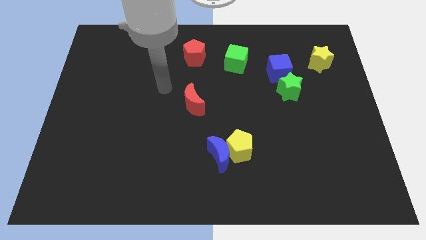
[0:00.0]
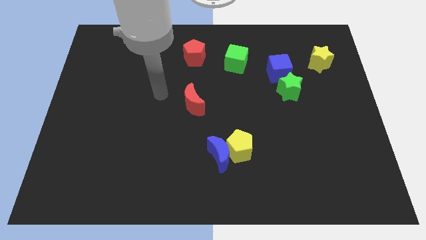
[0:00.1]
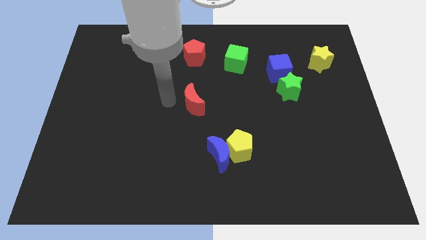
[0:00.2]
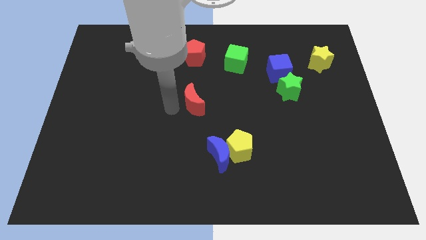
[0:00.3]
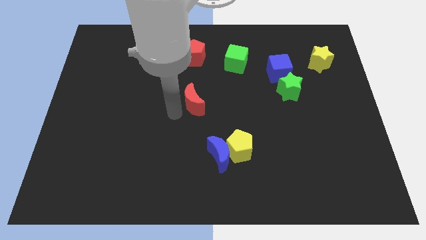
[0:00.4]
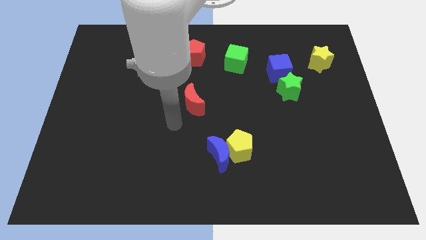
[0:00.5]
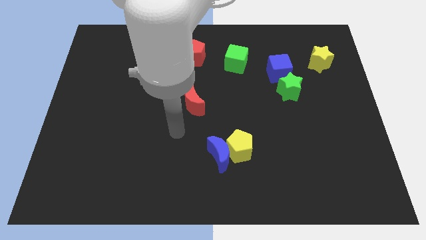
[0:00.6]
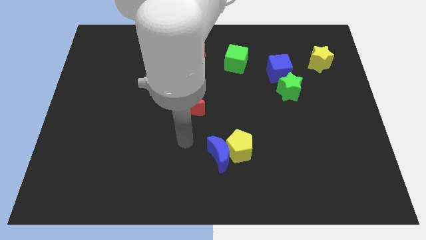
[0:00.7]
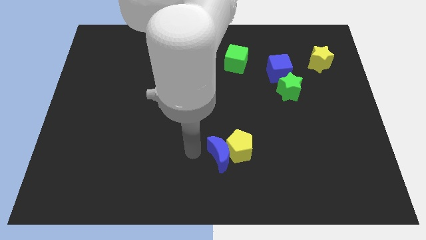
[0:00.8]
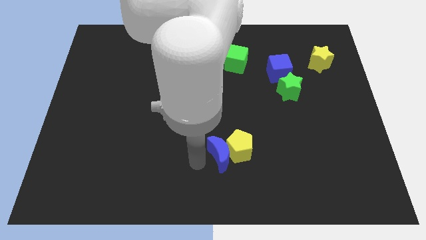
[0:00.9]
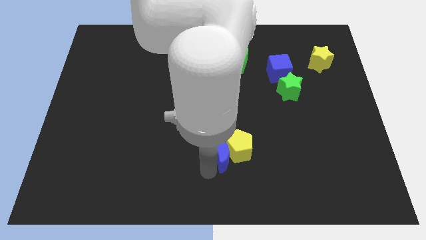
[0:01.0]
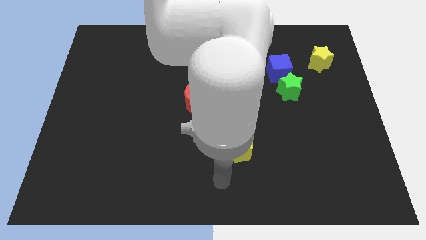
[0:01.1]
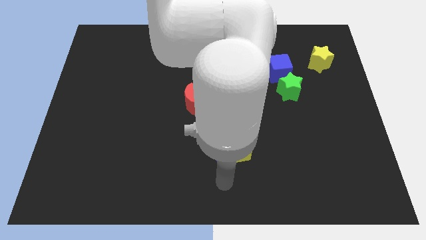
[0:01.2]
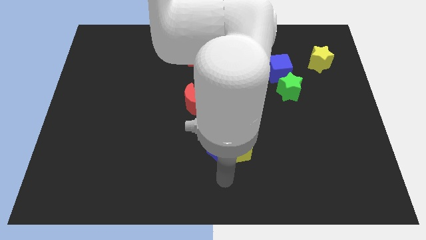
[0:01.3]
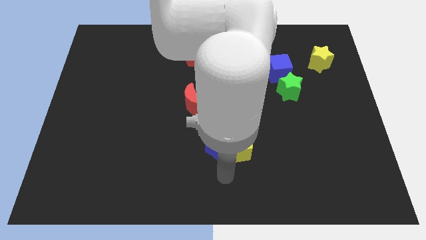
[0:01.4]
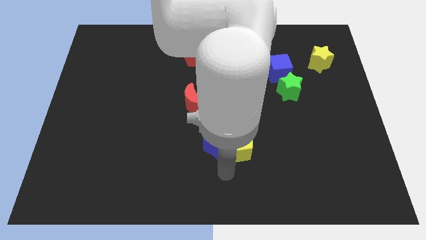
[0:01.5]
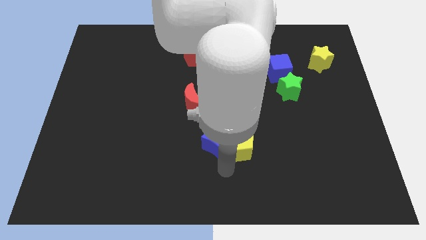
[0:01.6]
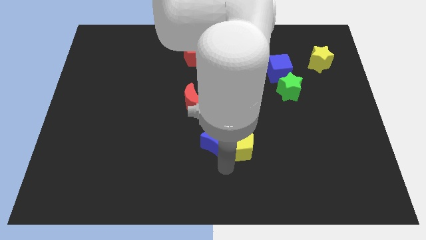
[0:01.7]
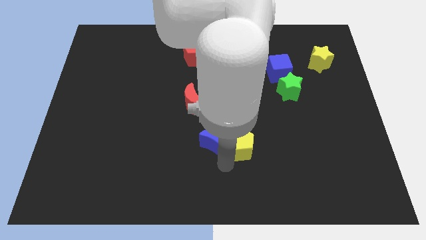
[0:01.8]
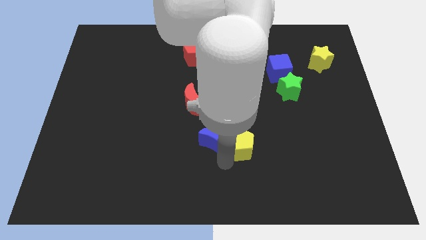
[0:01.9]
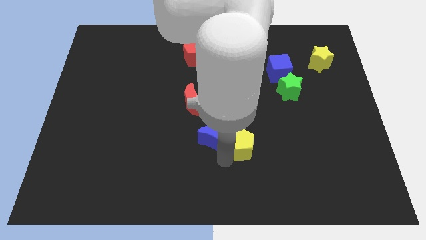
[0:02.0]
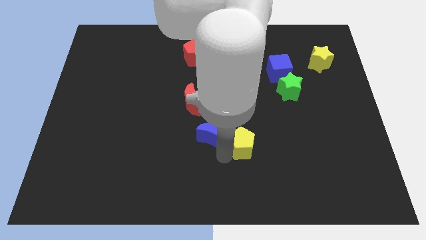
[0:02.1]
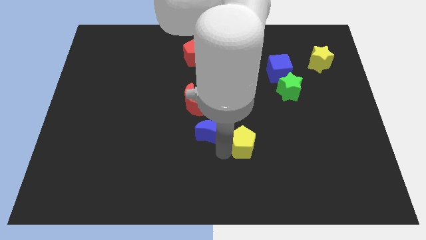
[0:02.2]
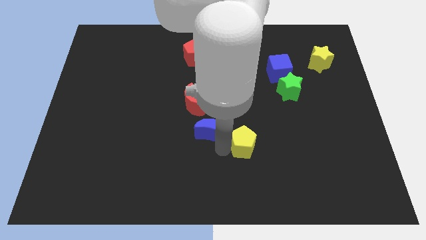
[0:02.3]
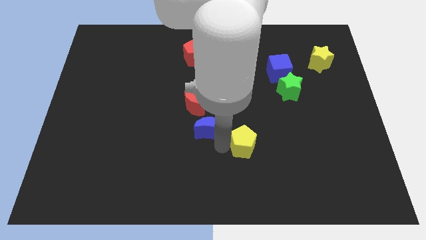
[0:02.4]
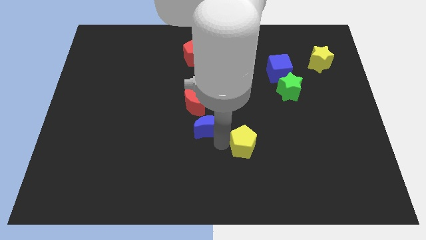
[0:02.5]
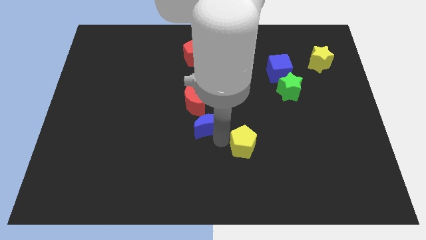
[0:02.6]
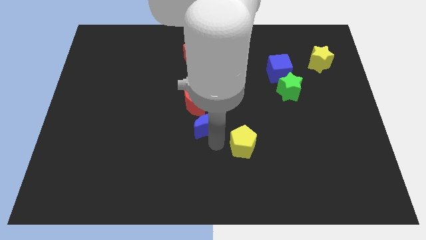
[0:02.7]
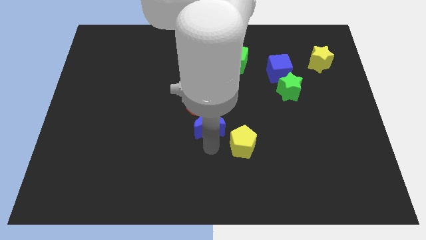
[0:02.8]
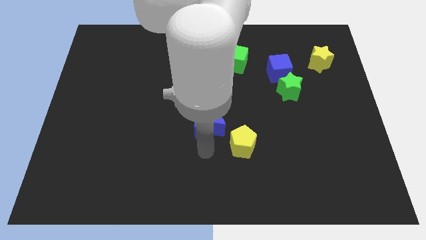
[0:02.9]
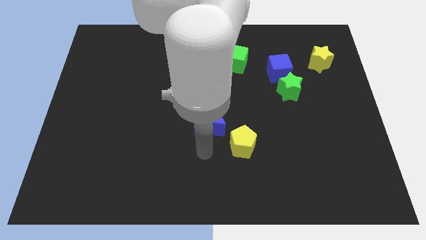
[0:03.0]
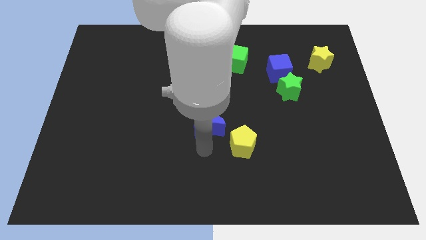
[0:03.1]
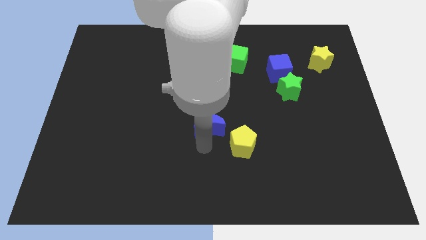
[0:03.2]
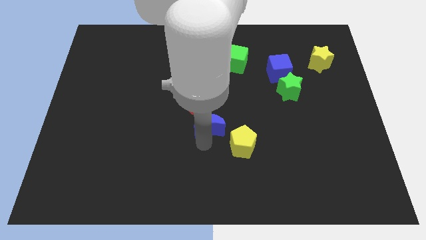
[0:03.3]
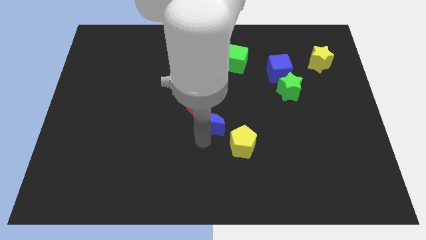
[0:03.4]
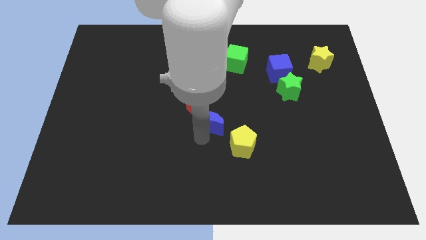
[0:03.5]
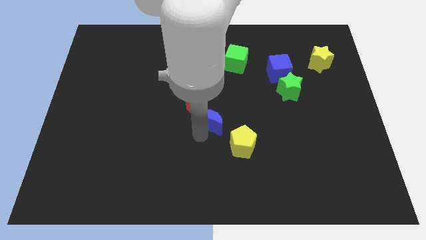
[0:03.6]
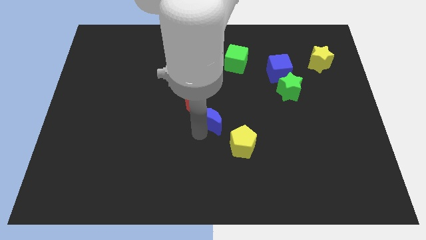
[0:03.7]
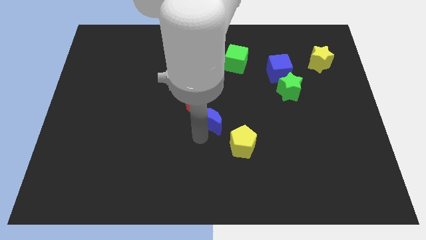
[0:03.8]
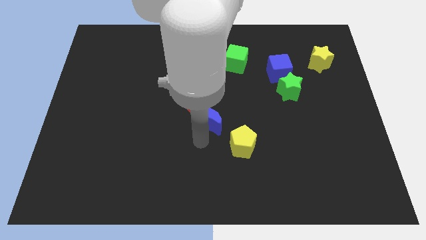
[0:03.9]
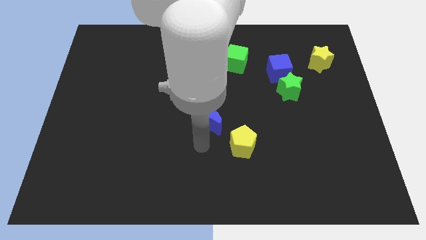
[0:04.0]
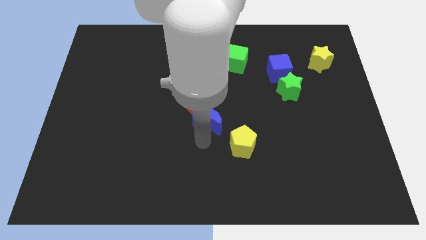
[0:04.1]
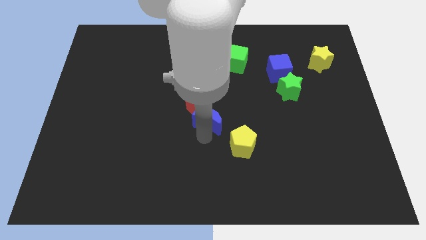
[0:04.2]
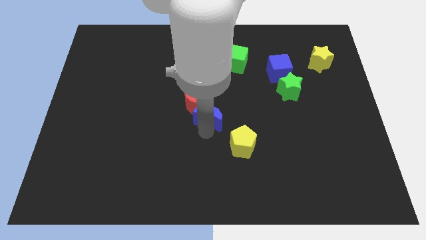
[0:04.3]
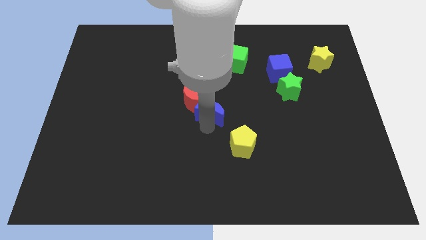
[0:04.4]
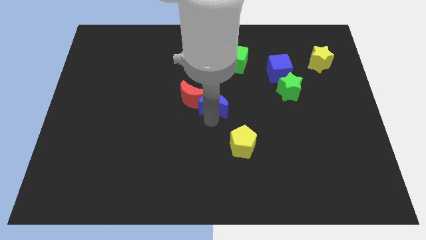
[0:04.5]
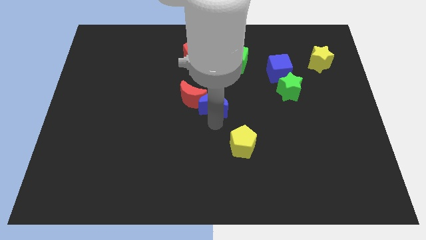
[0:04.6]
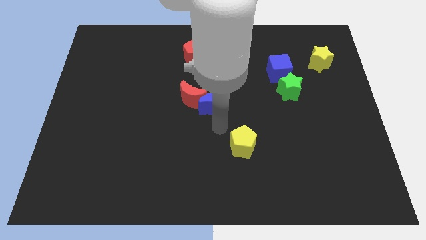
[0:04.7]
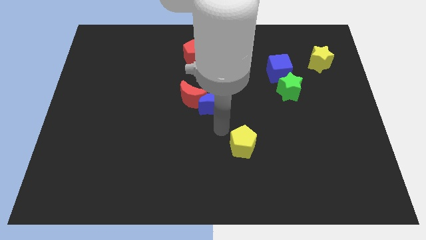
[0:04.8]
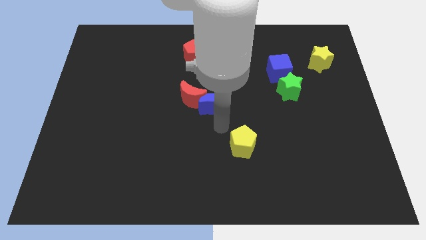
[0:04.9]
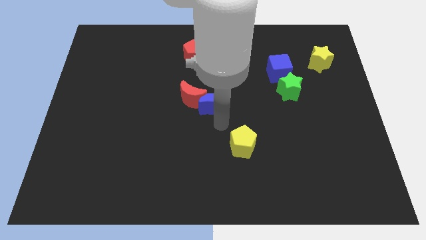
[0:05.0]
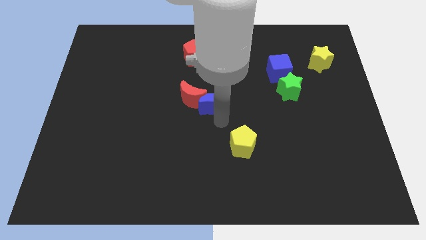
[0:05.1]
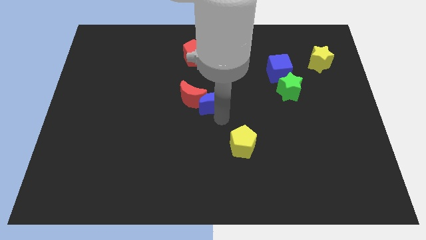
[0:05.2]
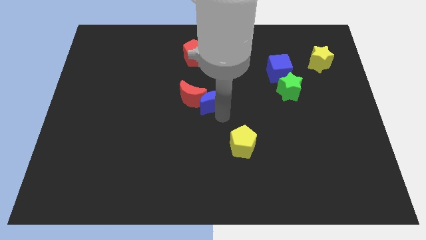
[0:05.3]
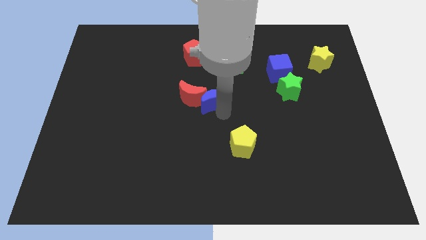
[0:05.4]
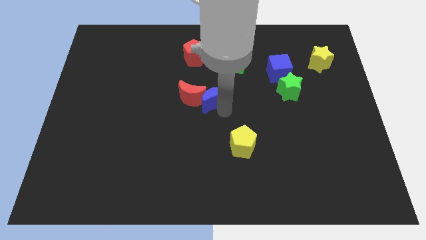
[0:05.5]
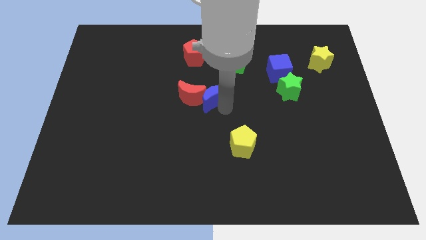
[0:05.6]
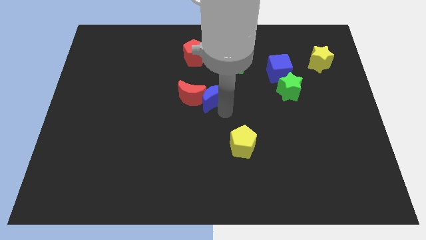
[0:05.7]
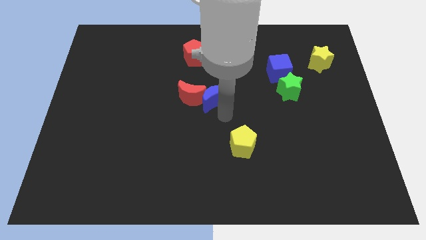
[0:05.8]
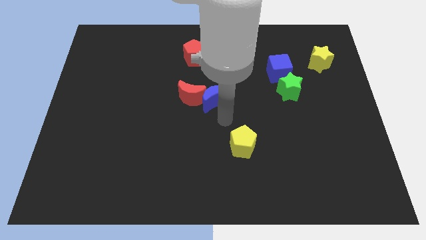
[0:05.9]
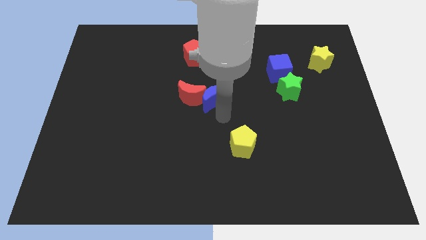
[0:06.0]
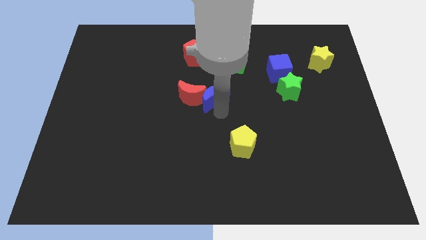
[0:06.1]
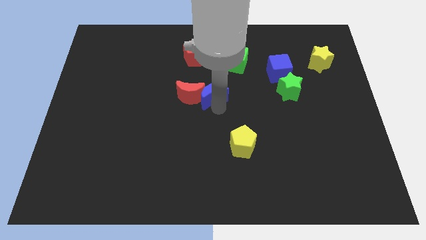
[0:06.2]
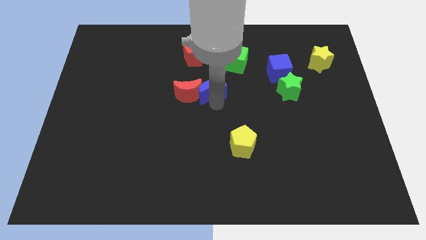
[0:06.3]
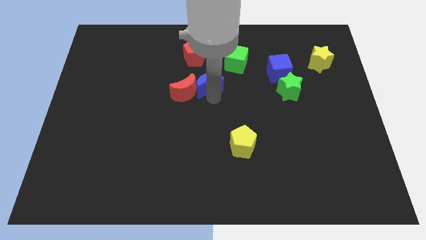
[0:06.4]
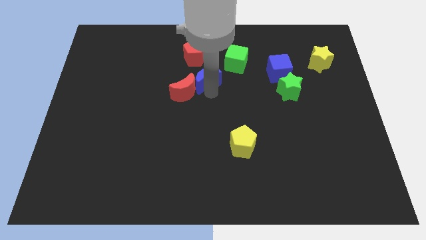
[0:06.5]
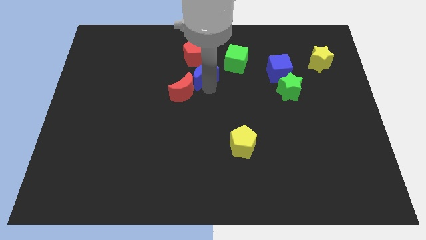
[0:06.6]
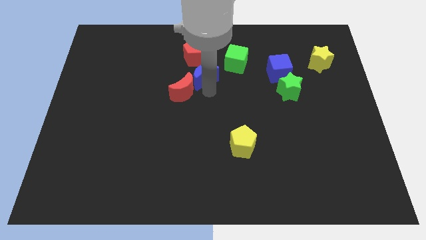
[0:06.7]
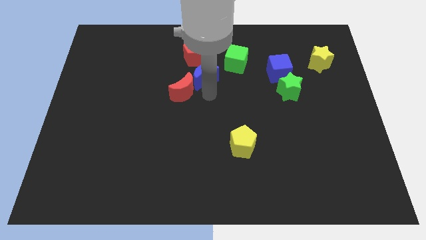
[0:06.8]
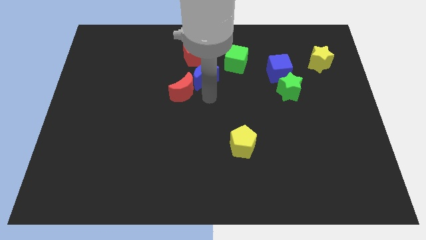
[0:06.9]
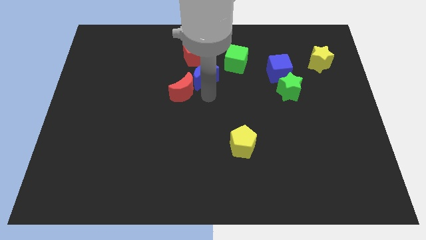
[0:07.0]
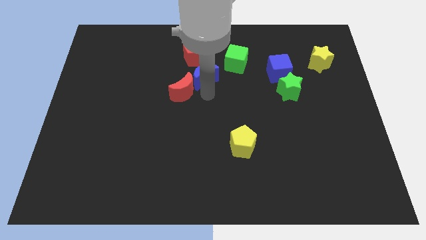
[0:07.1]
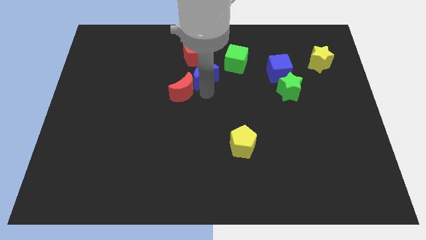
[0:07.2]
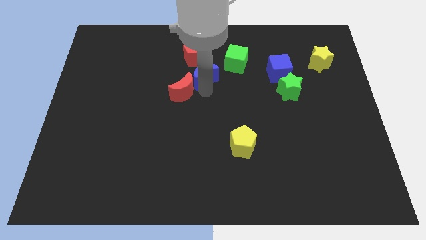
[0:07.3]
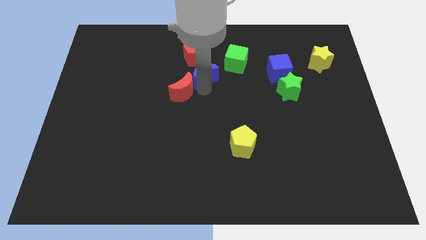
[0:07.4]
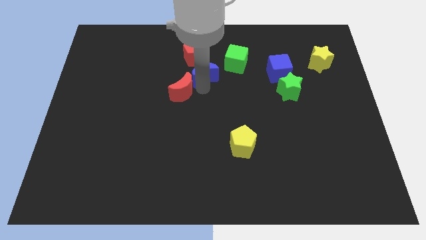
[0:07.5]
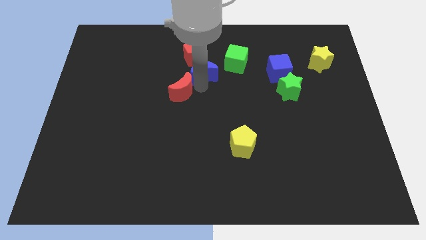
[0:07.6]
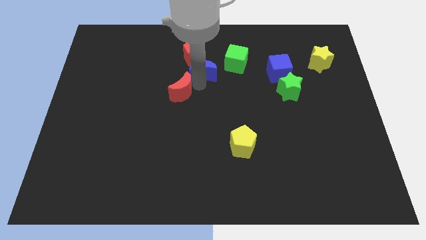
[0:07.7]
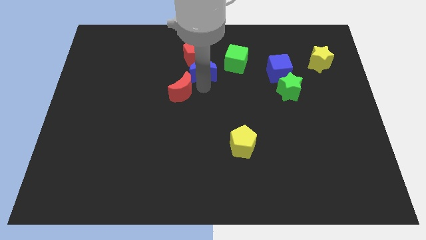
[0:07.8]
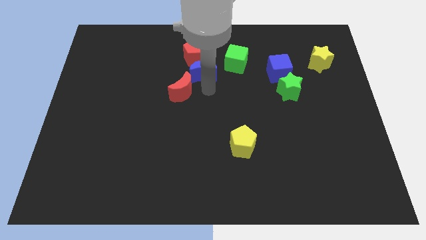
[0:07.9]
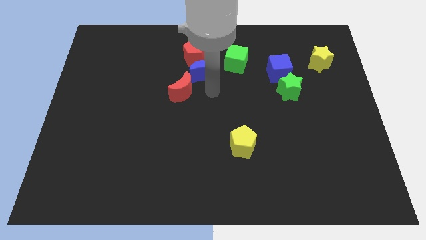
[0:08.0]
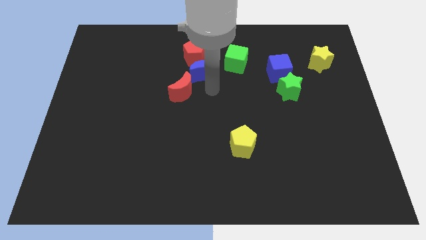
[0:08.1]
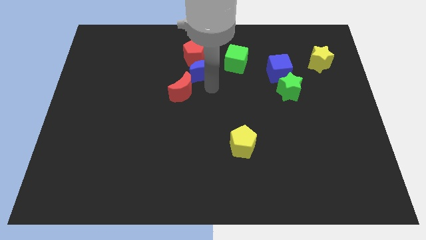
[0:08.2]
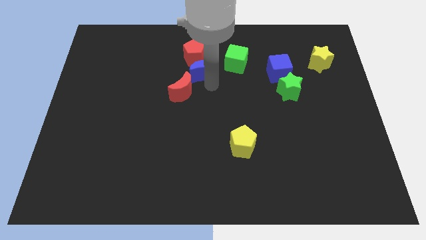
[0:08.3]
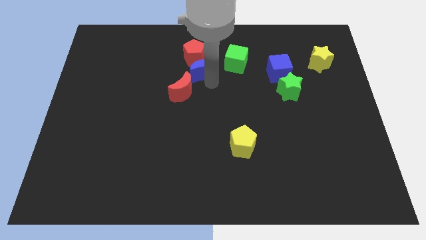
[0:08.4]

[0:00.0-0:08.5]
push the blue moon next to the red pentagon
